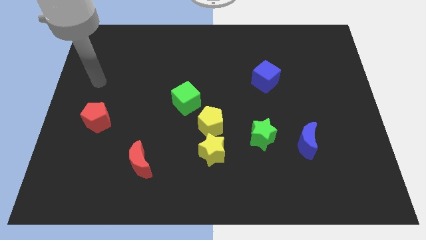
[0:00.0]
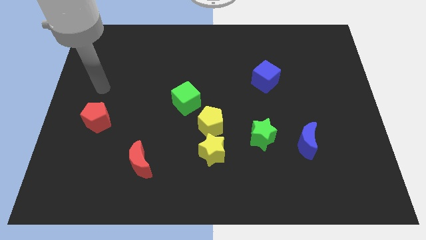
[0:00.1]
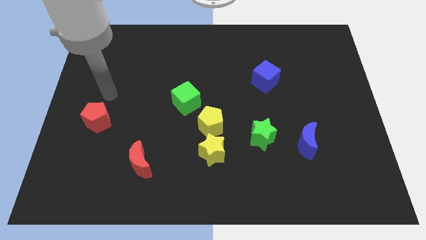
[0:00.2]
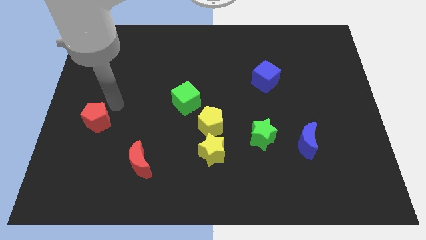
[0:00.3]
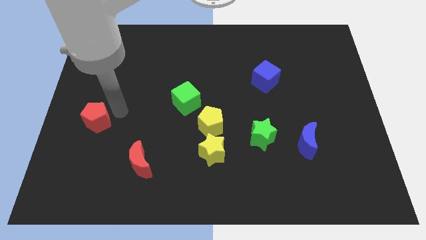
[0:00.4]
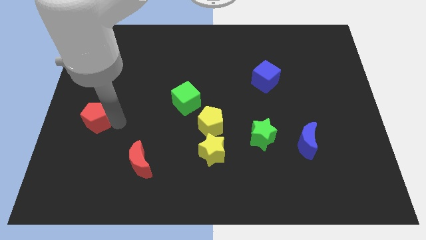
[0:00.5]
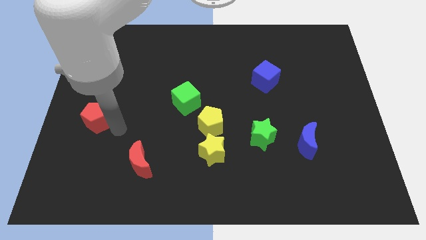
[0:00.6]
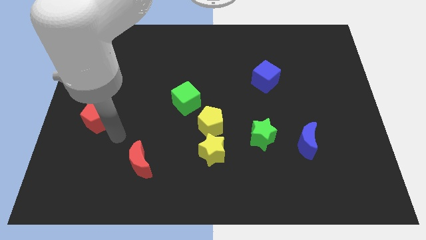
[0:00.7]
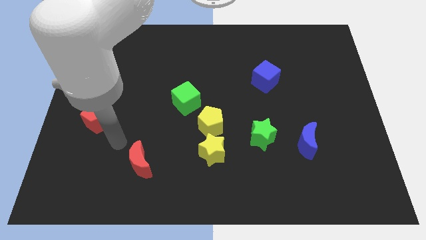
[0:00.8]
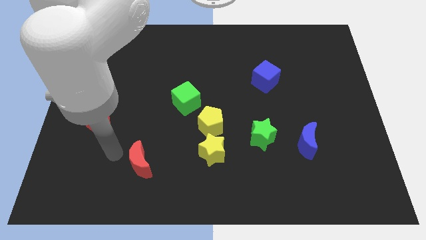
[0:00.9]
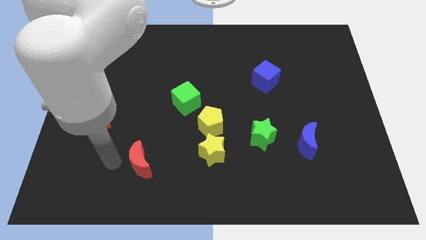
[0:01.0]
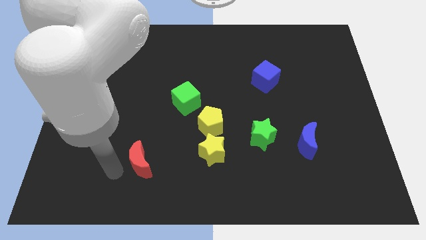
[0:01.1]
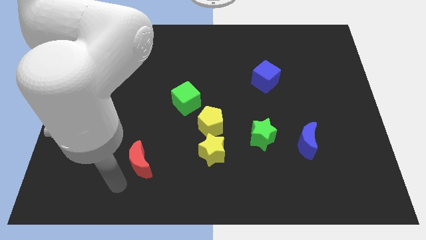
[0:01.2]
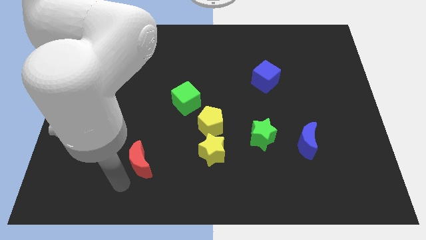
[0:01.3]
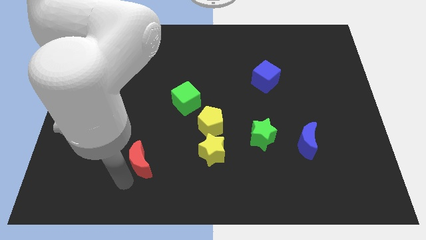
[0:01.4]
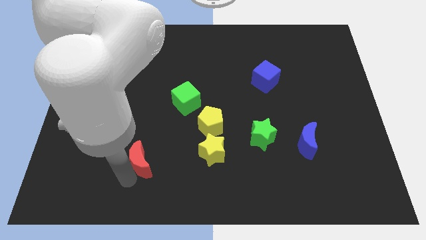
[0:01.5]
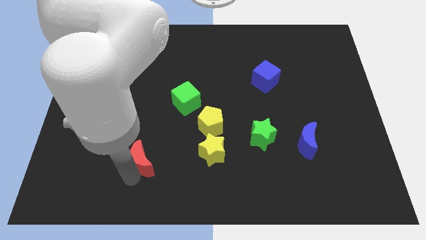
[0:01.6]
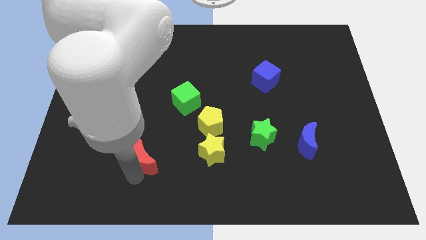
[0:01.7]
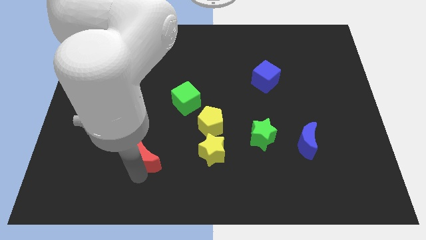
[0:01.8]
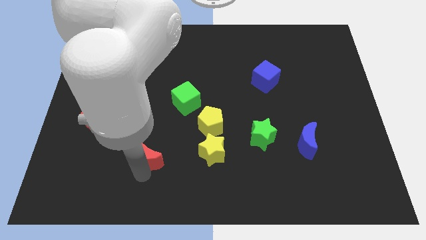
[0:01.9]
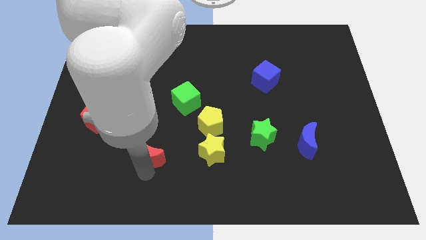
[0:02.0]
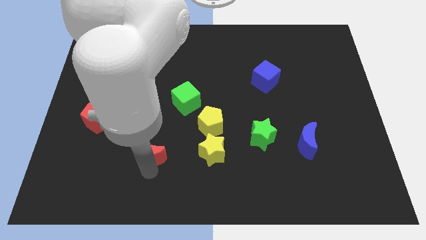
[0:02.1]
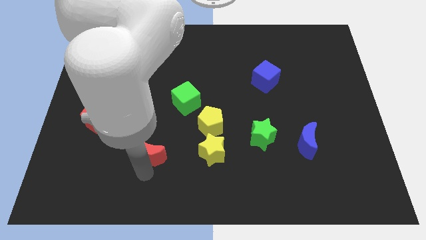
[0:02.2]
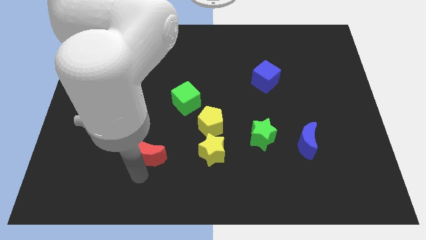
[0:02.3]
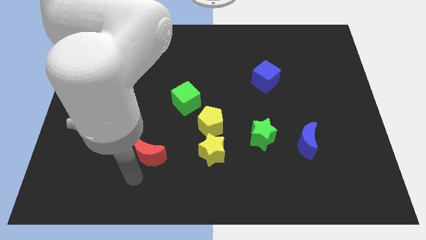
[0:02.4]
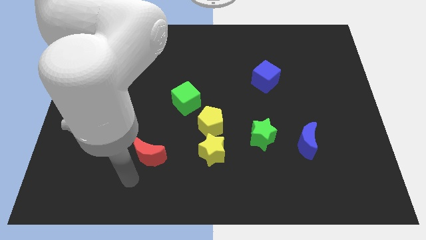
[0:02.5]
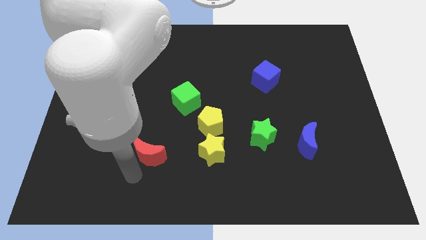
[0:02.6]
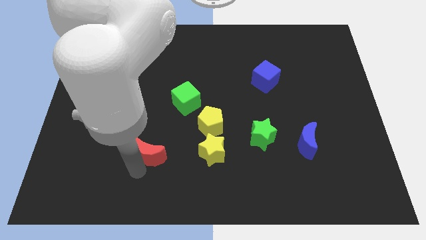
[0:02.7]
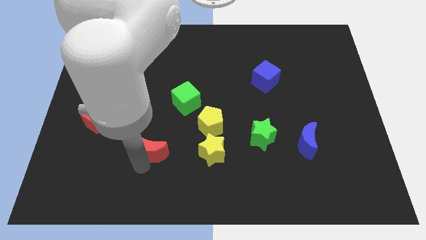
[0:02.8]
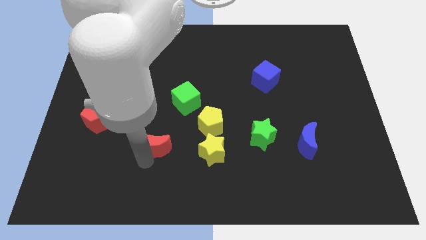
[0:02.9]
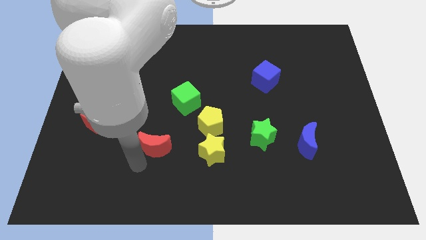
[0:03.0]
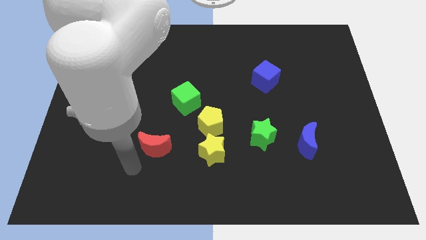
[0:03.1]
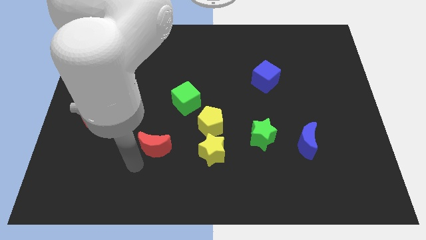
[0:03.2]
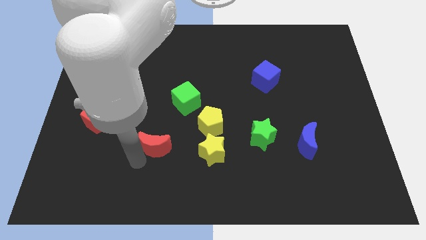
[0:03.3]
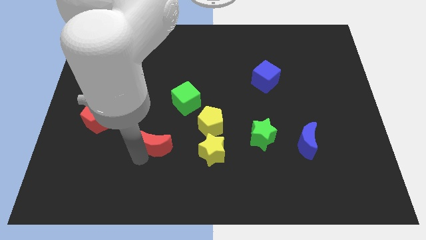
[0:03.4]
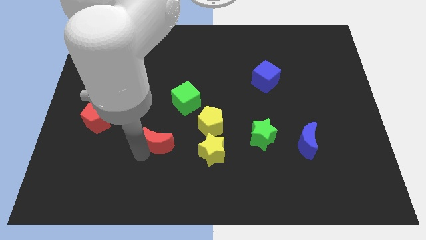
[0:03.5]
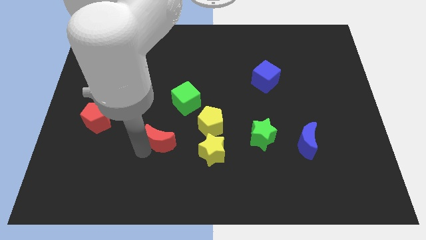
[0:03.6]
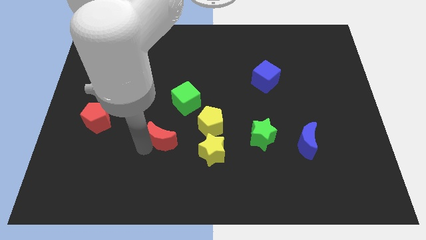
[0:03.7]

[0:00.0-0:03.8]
slide the red moon up and right diagonally somewhat

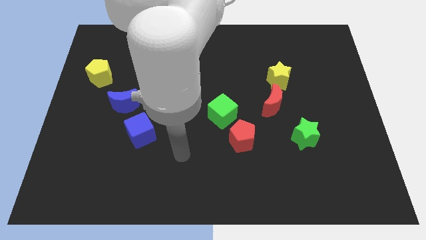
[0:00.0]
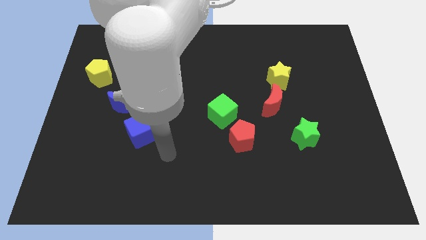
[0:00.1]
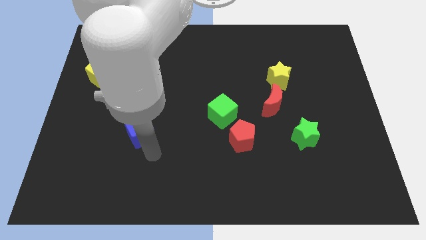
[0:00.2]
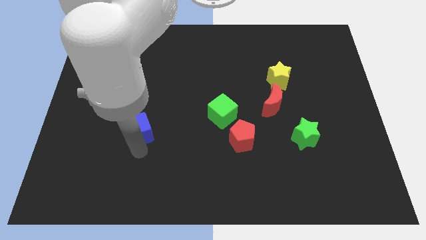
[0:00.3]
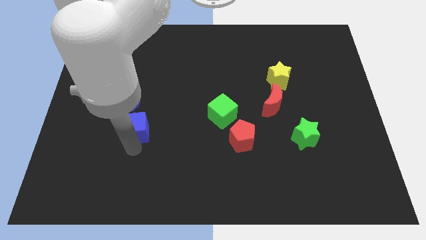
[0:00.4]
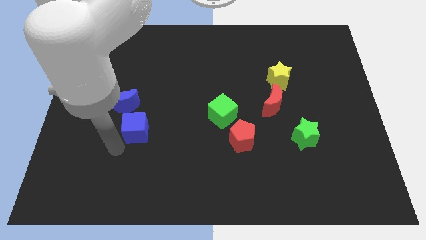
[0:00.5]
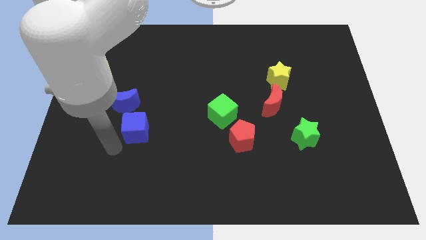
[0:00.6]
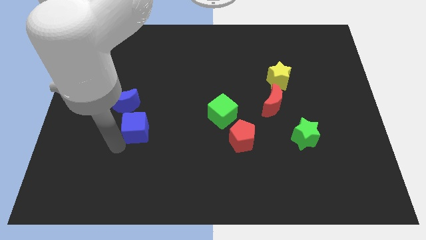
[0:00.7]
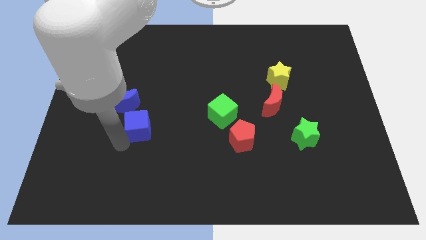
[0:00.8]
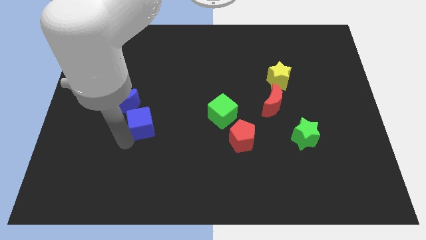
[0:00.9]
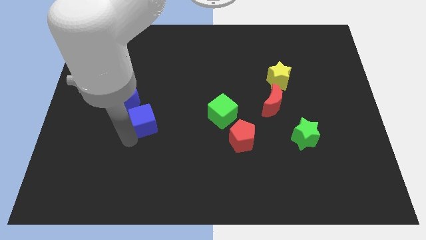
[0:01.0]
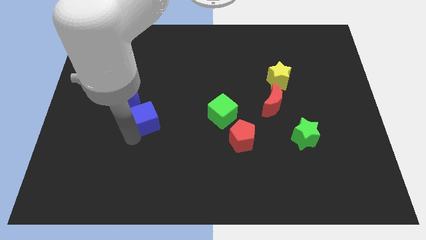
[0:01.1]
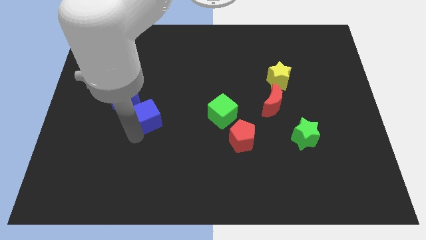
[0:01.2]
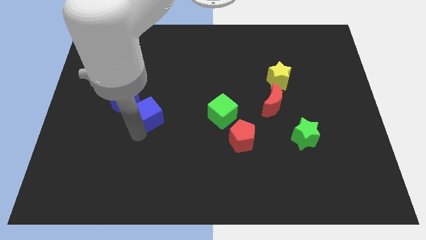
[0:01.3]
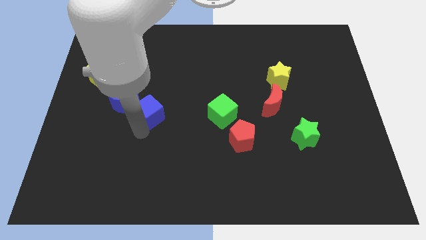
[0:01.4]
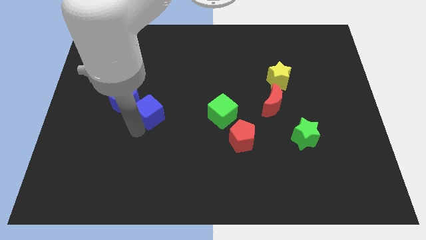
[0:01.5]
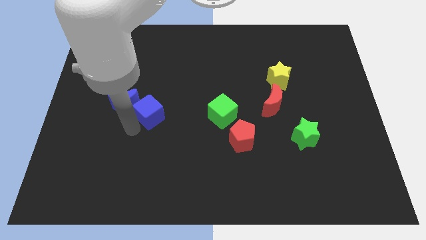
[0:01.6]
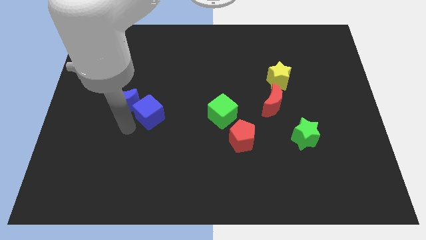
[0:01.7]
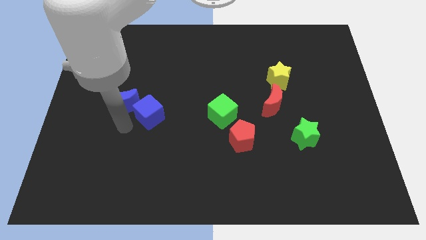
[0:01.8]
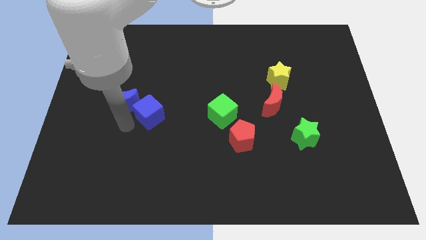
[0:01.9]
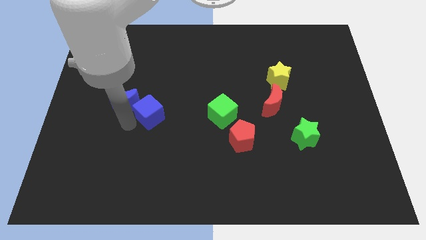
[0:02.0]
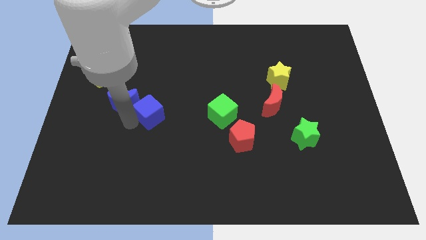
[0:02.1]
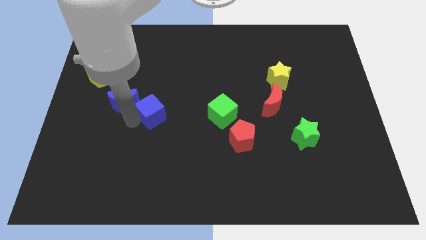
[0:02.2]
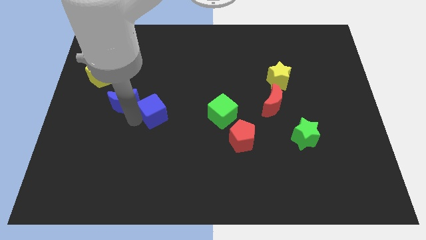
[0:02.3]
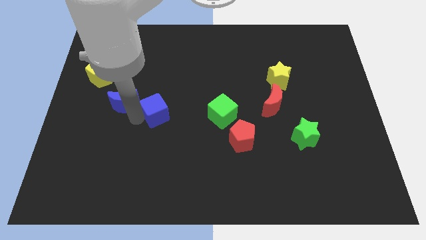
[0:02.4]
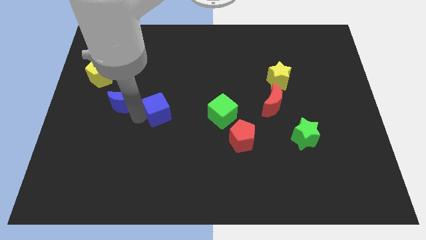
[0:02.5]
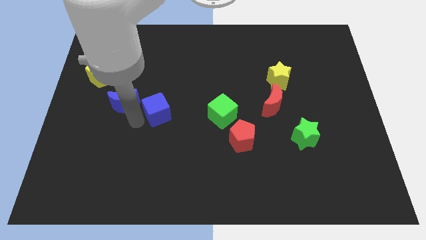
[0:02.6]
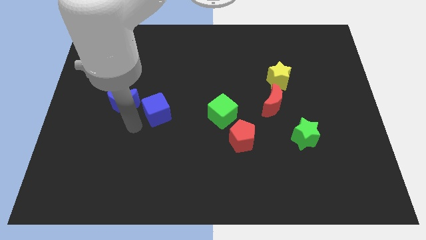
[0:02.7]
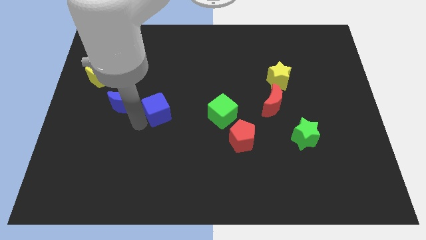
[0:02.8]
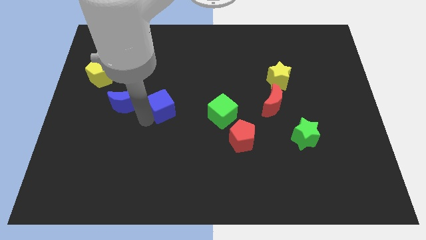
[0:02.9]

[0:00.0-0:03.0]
slightly move the blue cube up and to the right diagonally

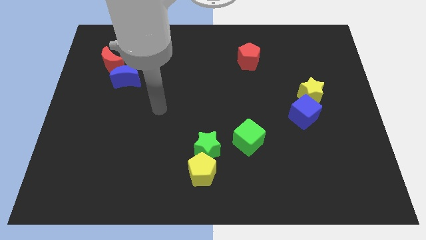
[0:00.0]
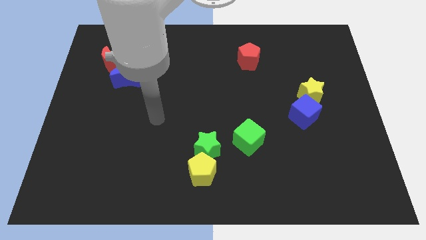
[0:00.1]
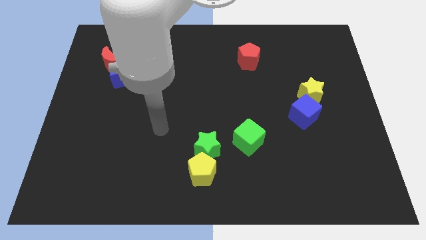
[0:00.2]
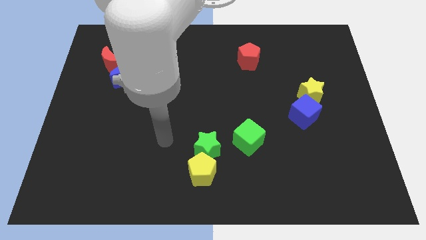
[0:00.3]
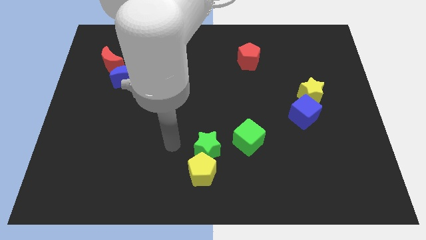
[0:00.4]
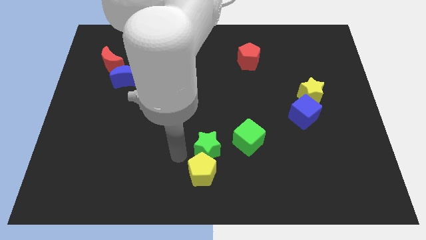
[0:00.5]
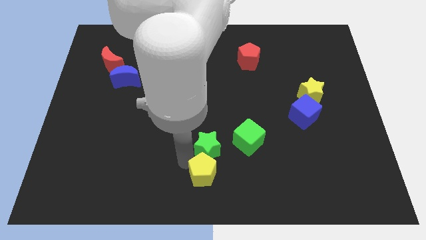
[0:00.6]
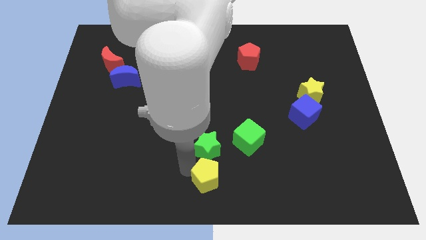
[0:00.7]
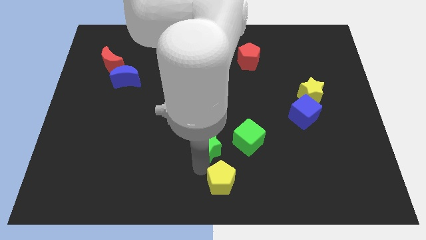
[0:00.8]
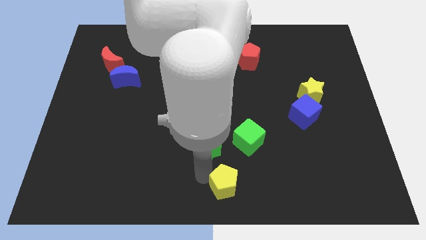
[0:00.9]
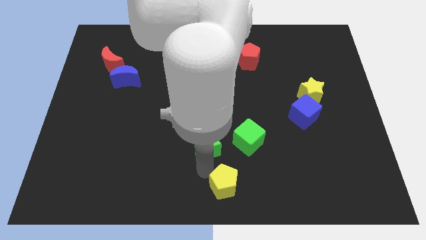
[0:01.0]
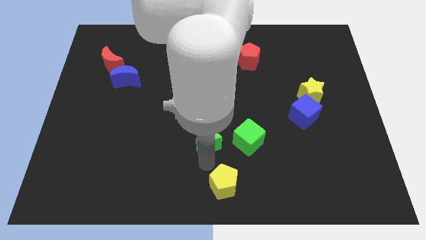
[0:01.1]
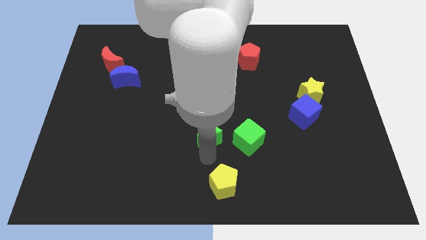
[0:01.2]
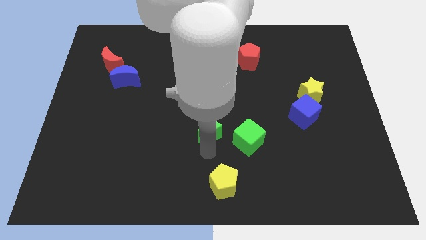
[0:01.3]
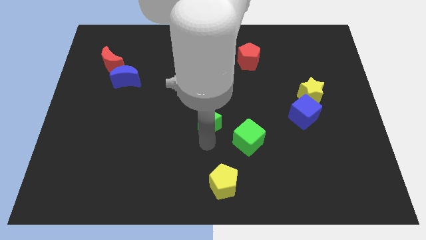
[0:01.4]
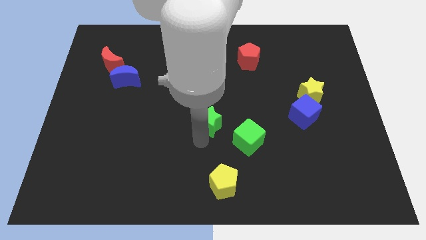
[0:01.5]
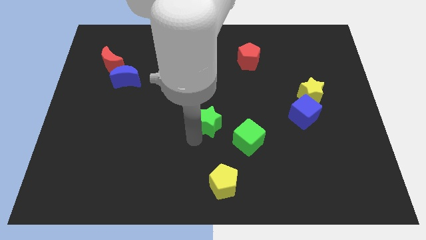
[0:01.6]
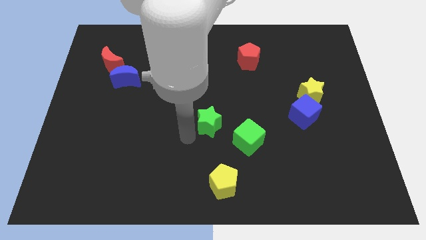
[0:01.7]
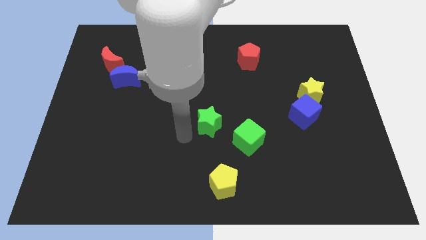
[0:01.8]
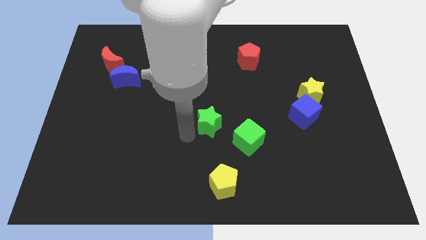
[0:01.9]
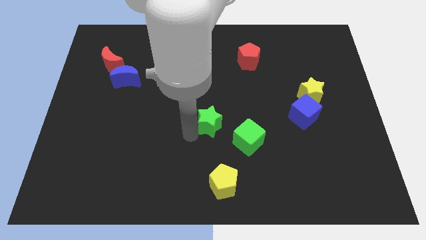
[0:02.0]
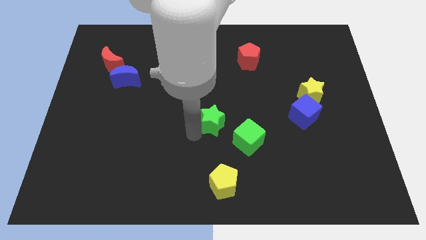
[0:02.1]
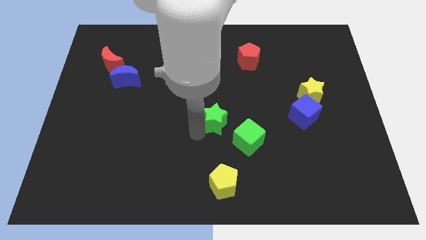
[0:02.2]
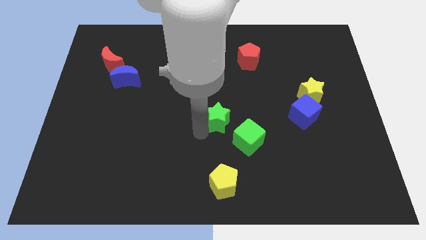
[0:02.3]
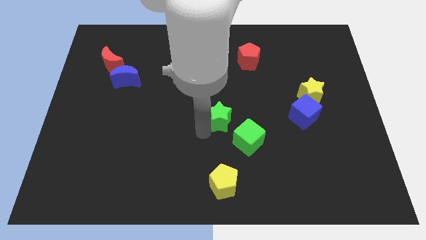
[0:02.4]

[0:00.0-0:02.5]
slightly move the green star diagonally up and to the right
